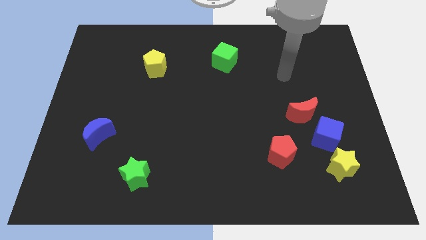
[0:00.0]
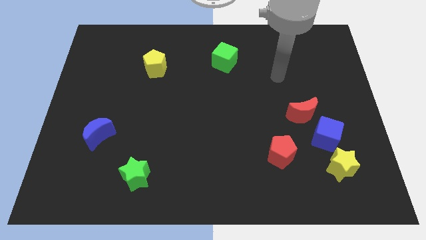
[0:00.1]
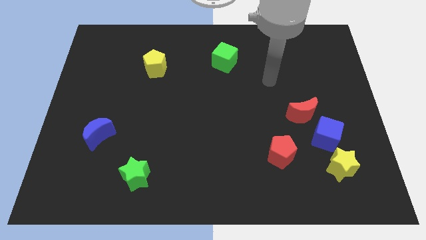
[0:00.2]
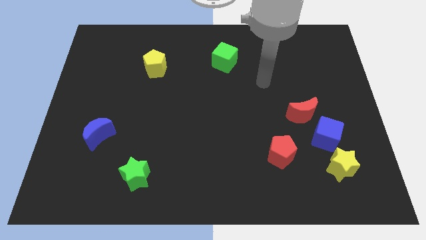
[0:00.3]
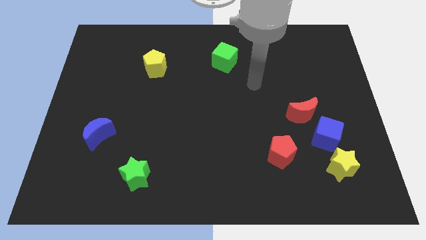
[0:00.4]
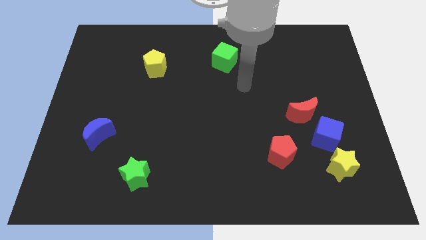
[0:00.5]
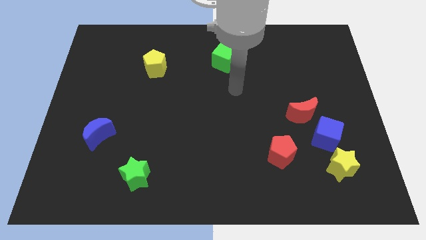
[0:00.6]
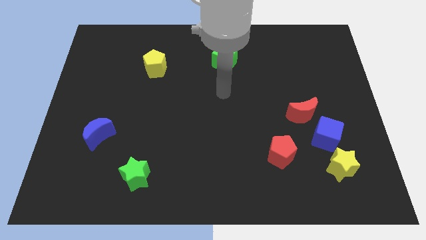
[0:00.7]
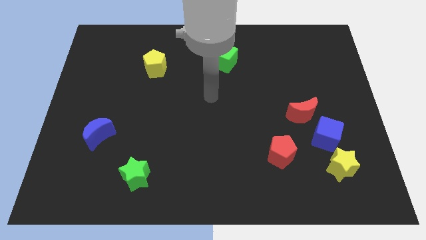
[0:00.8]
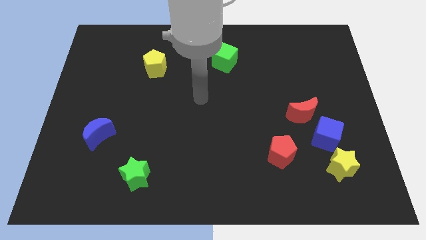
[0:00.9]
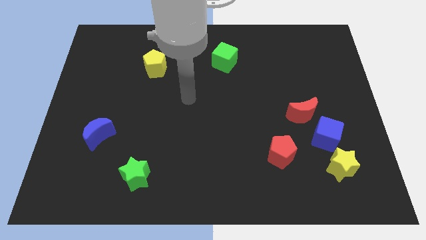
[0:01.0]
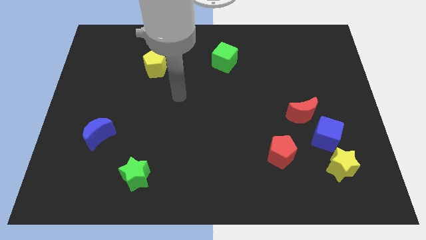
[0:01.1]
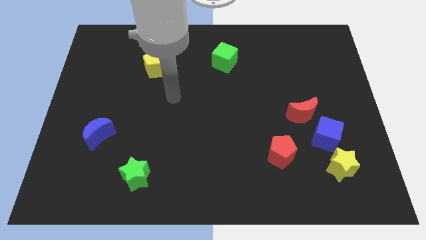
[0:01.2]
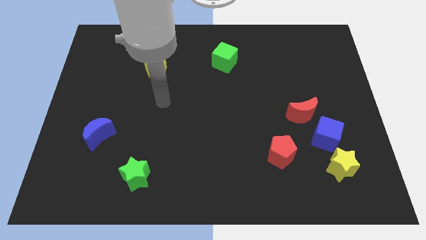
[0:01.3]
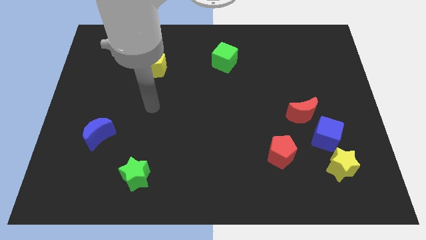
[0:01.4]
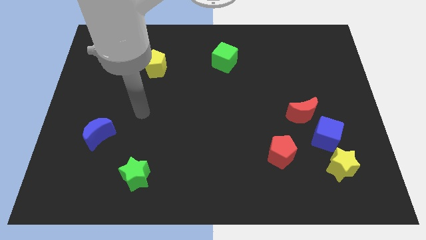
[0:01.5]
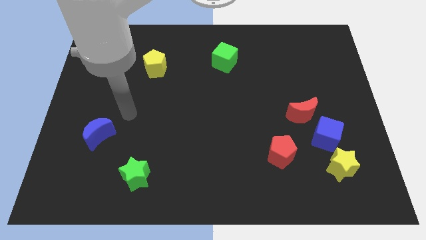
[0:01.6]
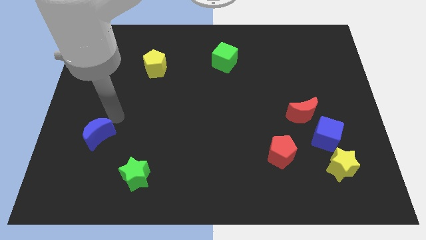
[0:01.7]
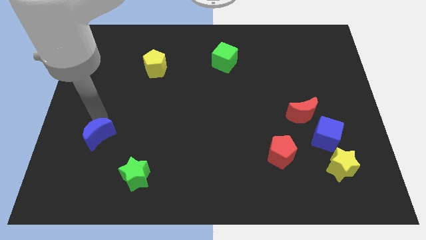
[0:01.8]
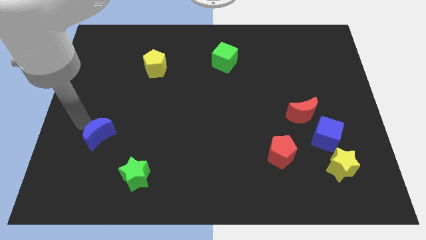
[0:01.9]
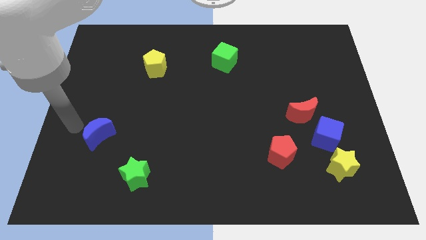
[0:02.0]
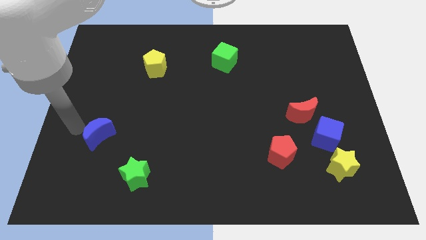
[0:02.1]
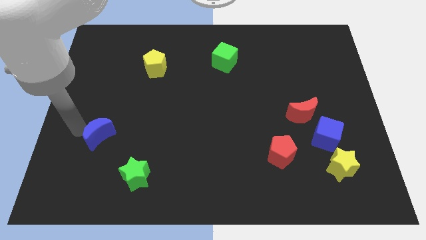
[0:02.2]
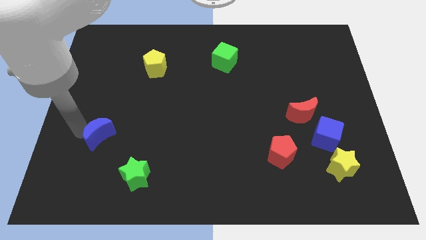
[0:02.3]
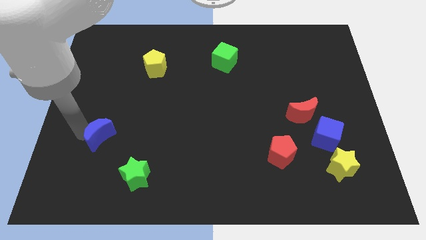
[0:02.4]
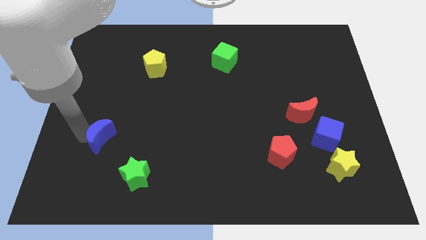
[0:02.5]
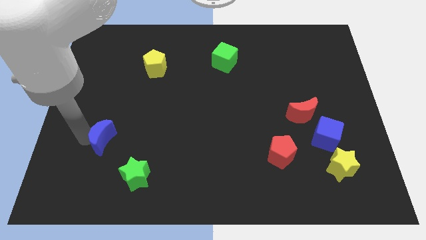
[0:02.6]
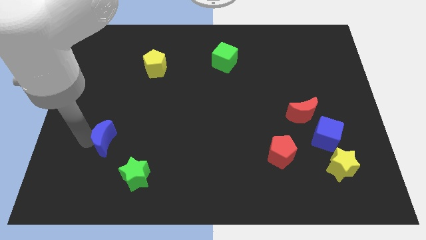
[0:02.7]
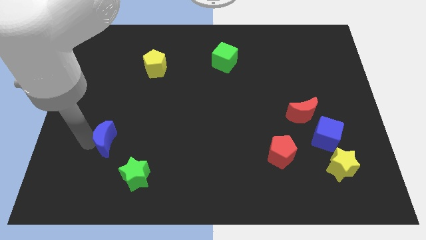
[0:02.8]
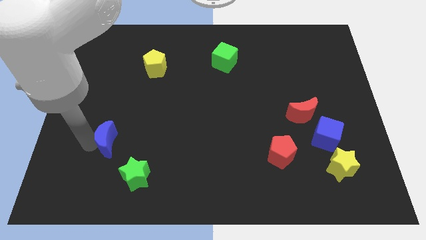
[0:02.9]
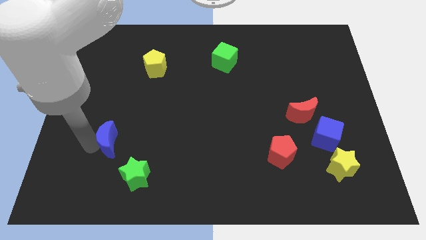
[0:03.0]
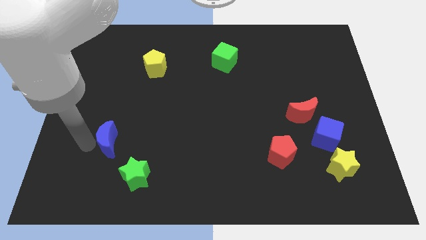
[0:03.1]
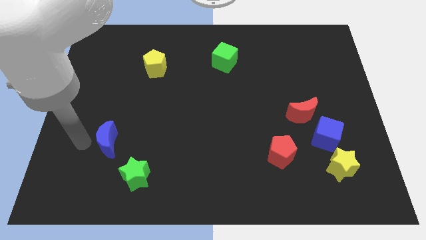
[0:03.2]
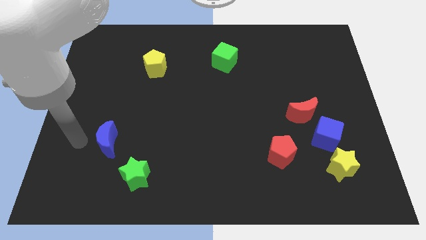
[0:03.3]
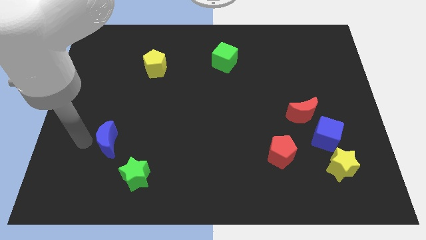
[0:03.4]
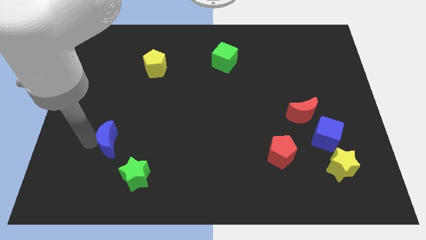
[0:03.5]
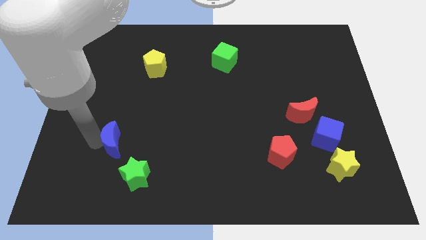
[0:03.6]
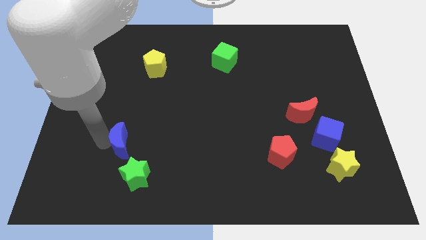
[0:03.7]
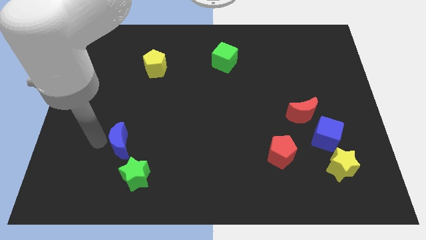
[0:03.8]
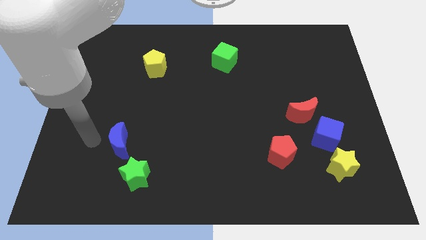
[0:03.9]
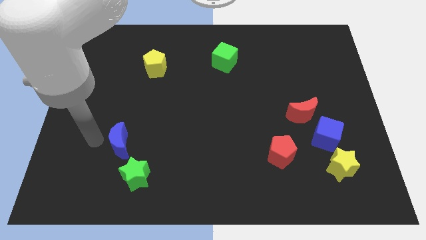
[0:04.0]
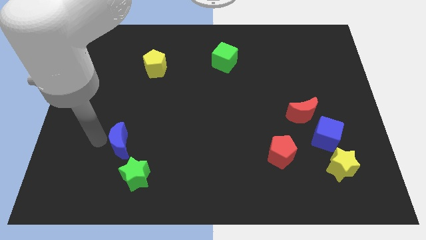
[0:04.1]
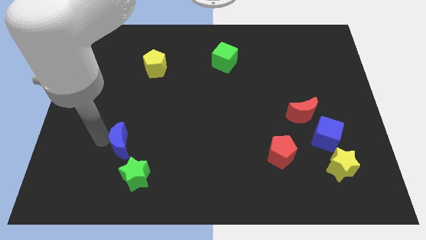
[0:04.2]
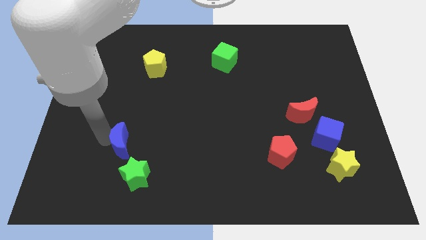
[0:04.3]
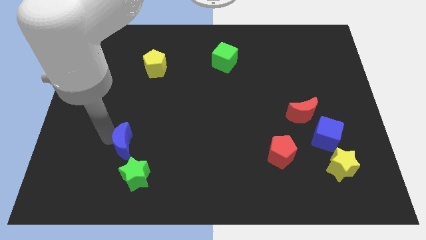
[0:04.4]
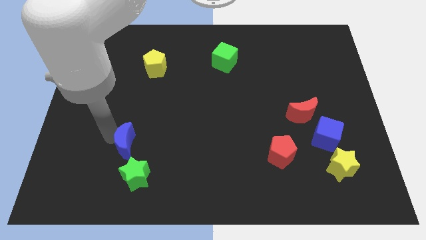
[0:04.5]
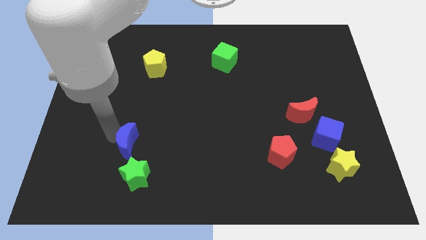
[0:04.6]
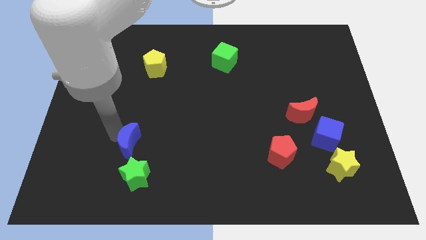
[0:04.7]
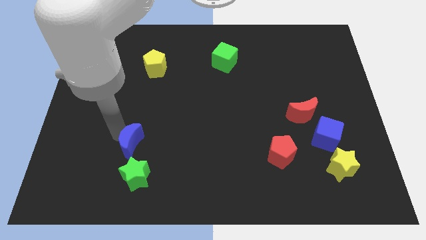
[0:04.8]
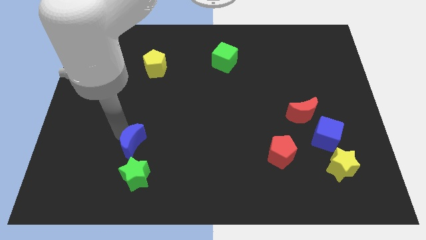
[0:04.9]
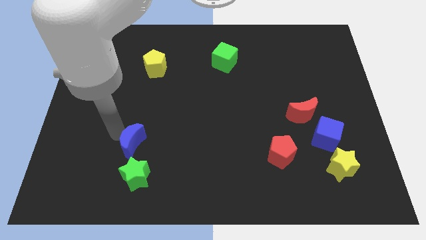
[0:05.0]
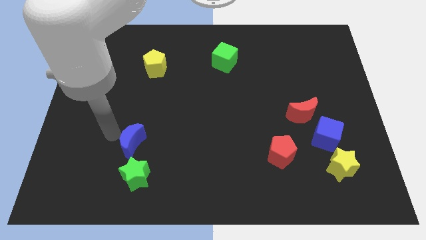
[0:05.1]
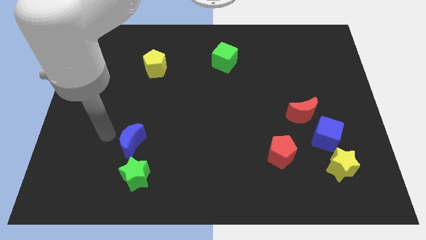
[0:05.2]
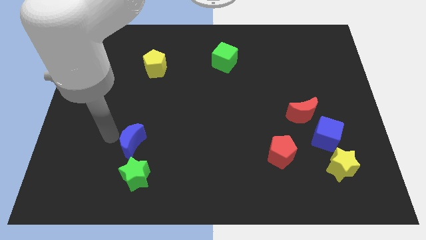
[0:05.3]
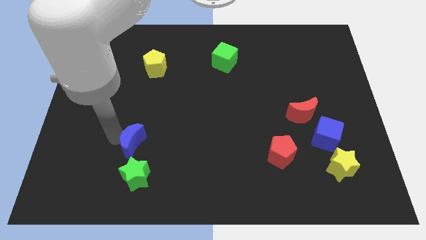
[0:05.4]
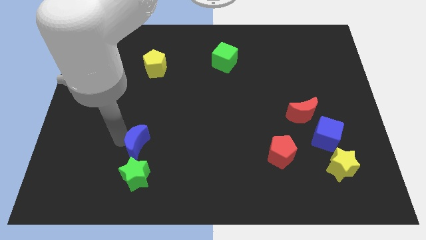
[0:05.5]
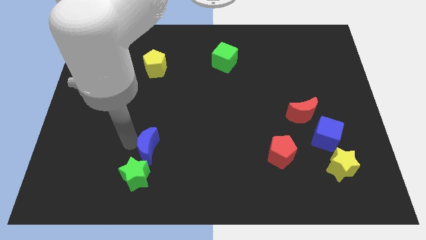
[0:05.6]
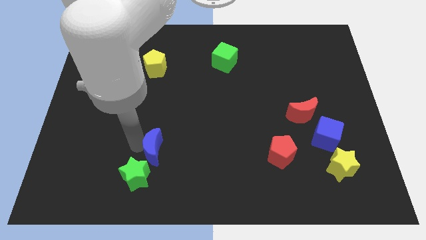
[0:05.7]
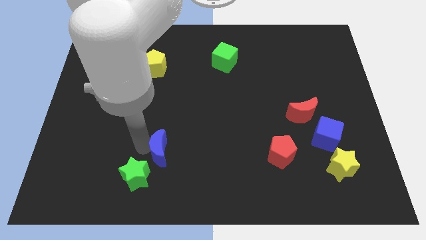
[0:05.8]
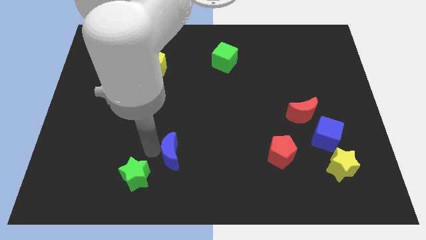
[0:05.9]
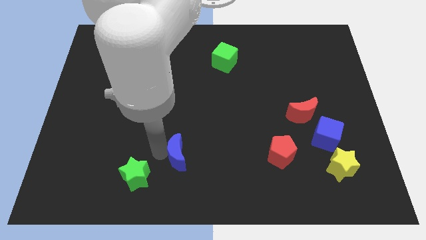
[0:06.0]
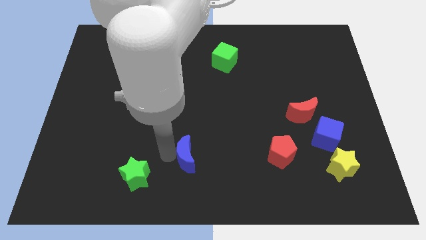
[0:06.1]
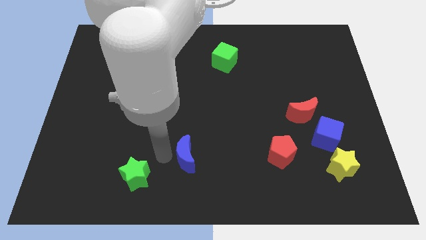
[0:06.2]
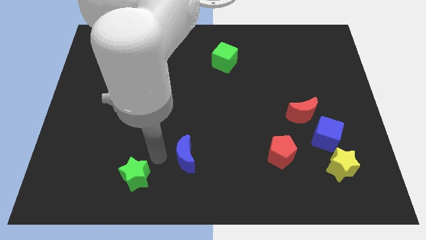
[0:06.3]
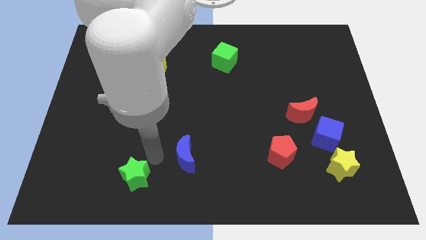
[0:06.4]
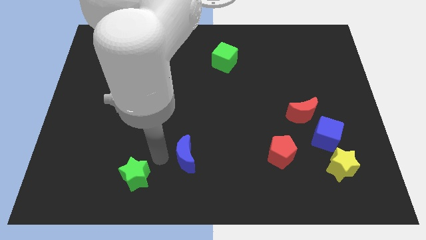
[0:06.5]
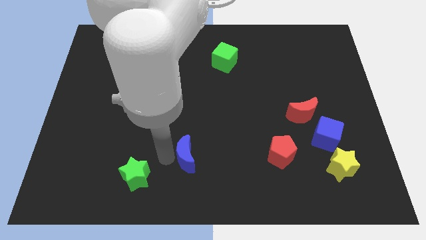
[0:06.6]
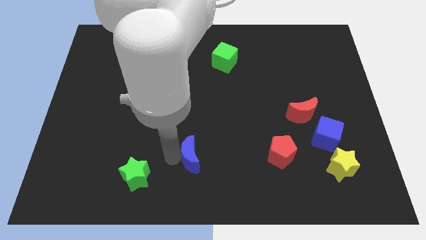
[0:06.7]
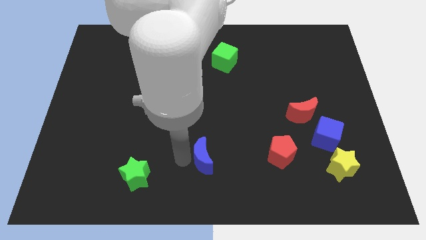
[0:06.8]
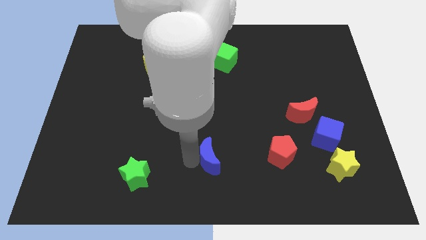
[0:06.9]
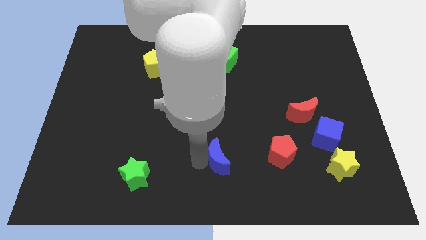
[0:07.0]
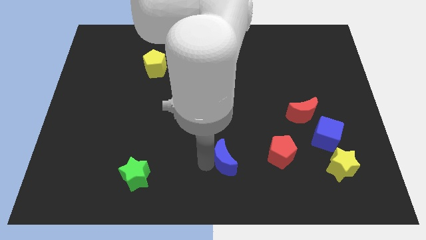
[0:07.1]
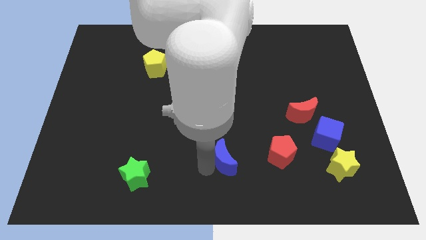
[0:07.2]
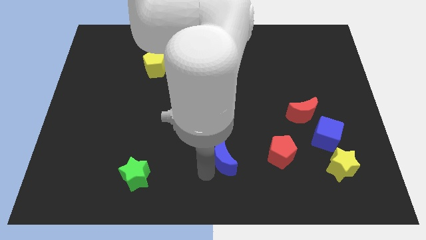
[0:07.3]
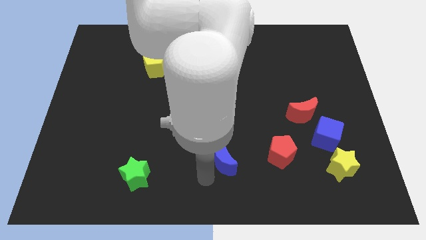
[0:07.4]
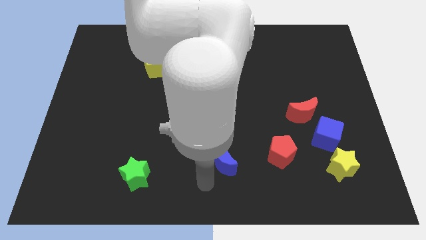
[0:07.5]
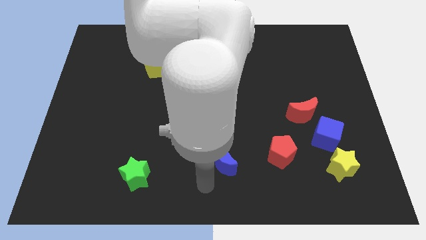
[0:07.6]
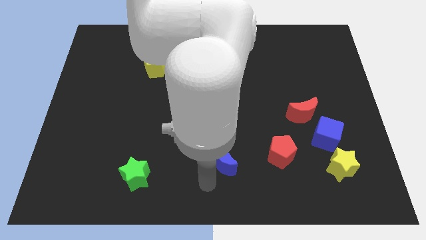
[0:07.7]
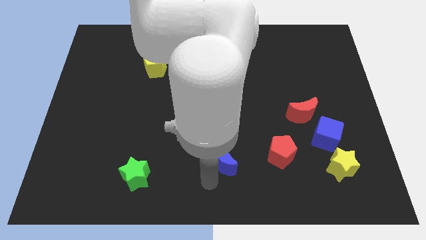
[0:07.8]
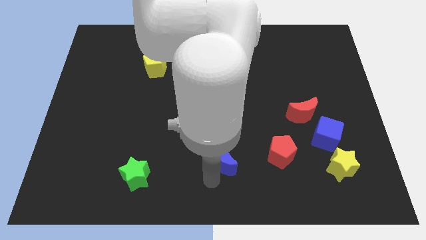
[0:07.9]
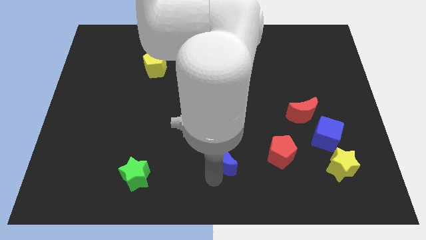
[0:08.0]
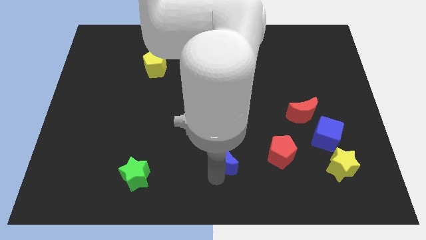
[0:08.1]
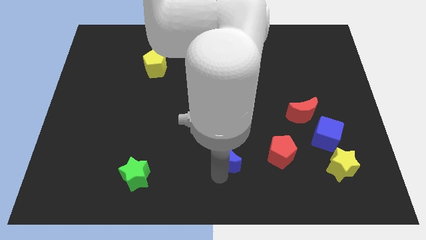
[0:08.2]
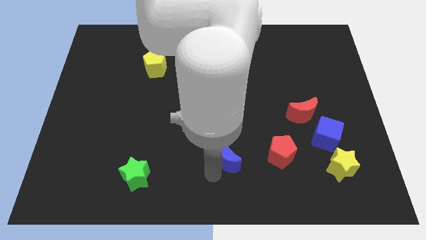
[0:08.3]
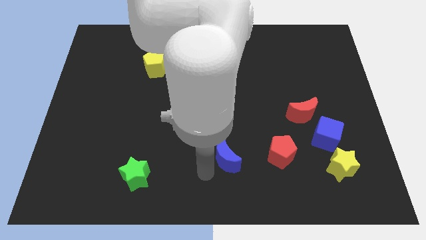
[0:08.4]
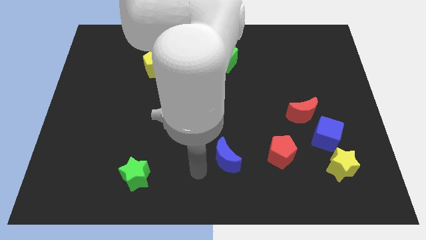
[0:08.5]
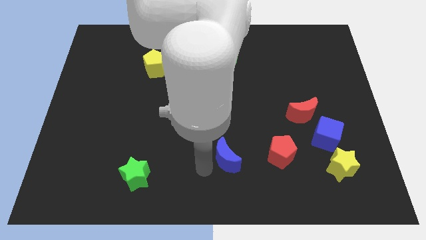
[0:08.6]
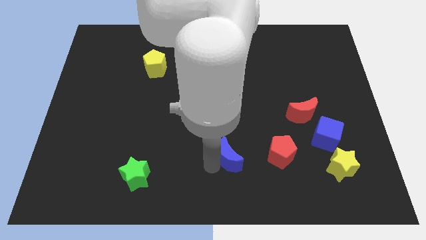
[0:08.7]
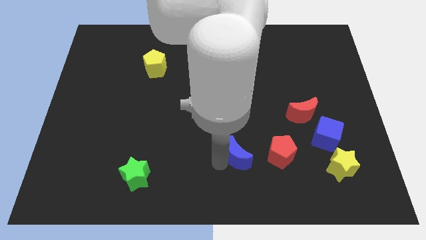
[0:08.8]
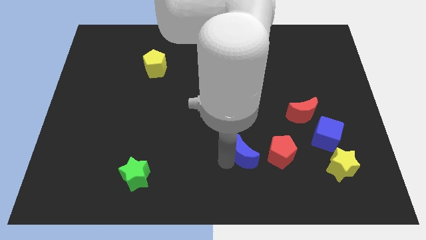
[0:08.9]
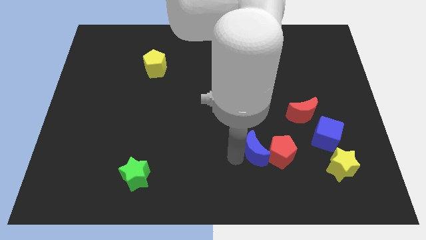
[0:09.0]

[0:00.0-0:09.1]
put the blue moon towards the red pentagon
